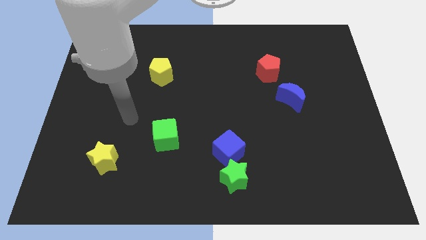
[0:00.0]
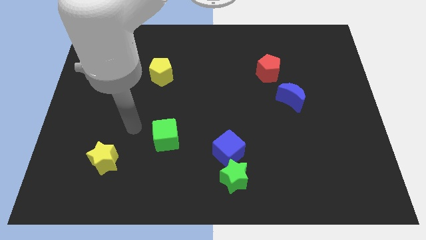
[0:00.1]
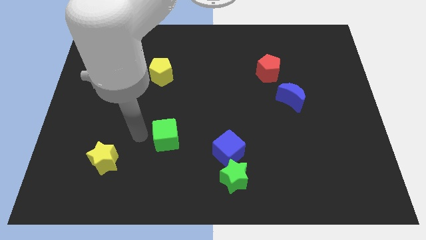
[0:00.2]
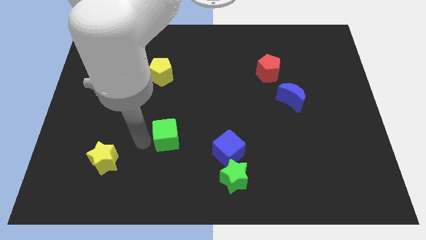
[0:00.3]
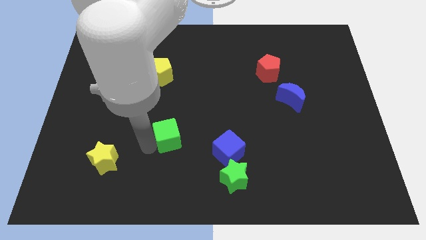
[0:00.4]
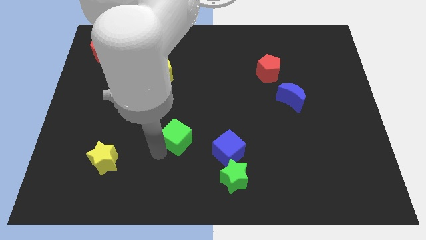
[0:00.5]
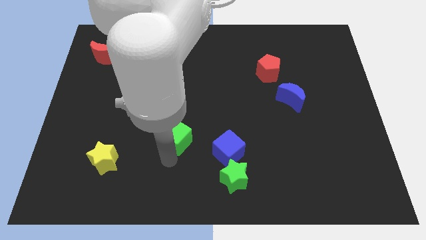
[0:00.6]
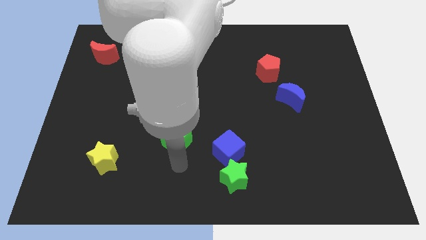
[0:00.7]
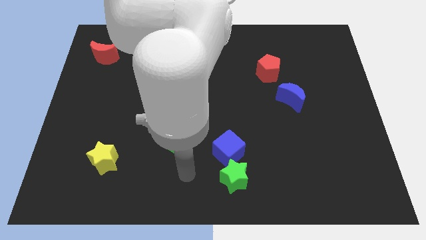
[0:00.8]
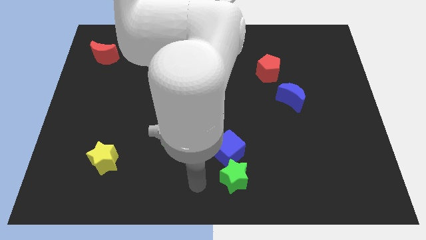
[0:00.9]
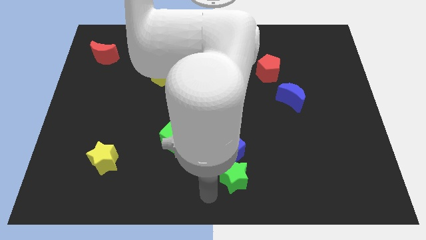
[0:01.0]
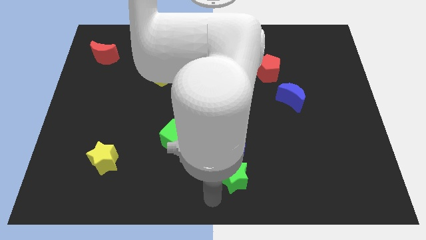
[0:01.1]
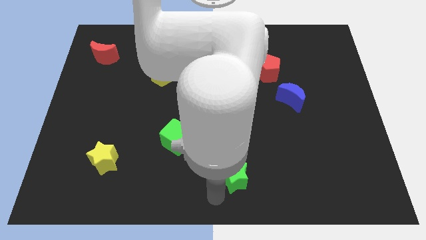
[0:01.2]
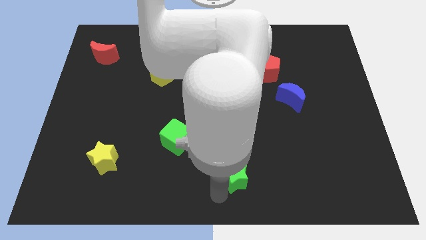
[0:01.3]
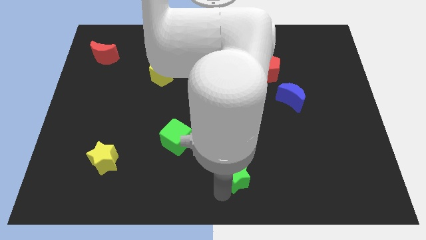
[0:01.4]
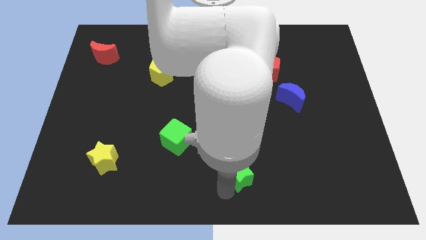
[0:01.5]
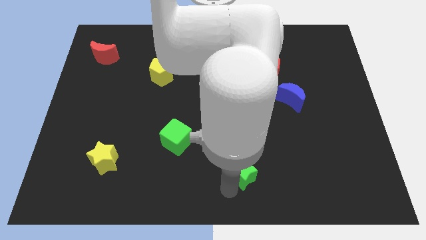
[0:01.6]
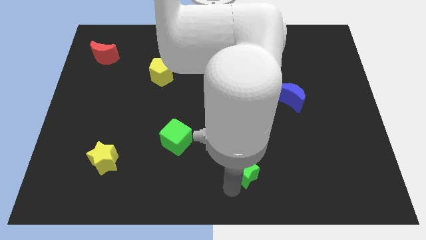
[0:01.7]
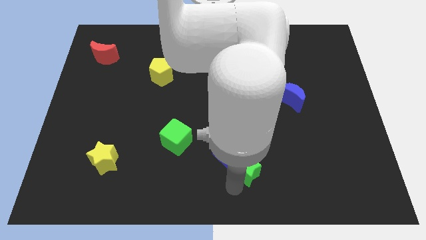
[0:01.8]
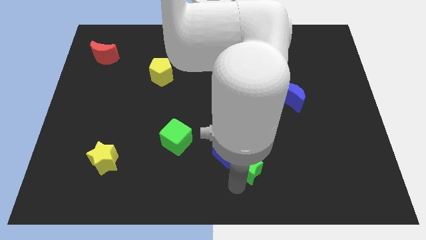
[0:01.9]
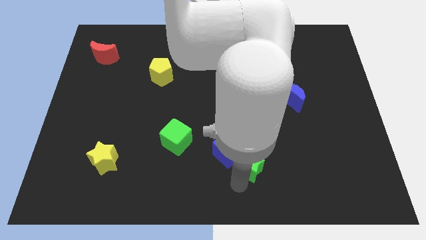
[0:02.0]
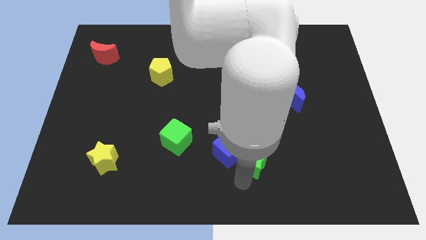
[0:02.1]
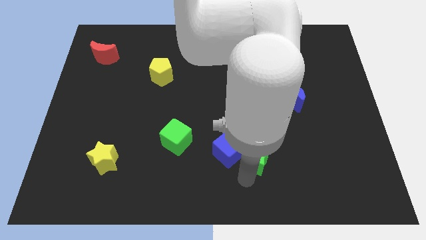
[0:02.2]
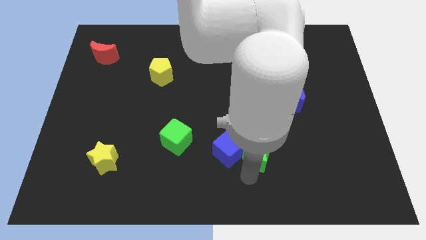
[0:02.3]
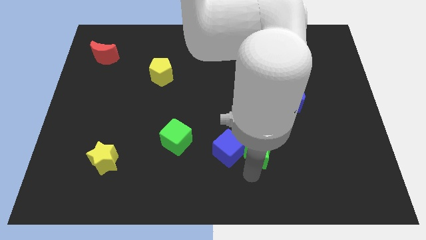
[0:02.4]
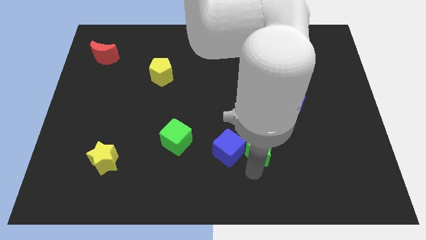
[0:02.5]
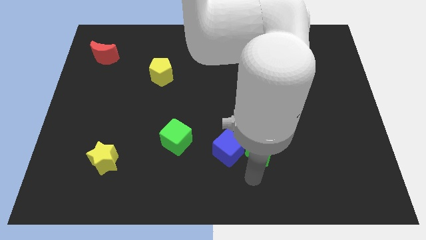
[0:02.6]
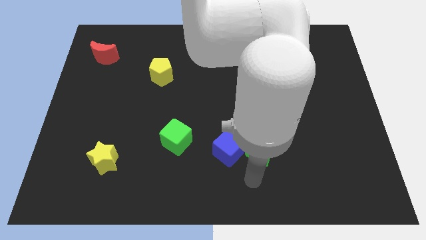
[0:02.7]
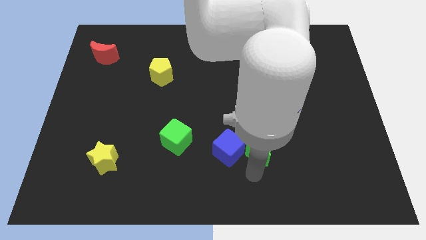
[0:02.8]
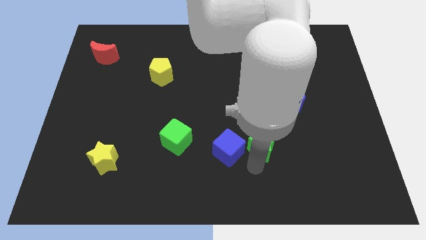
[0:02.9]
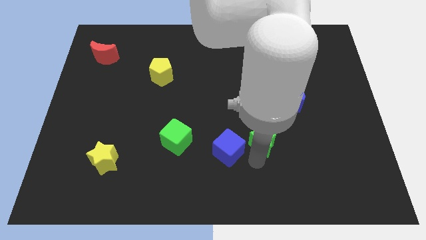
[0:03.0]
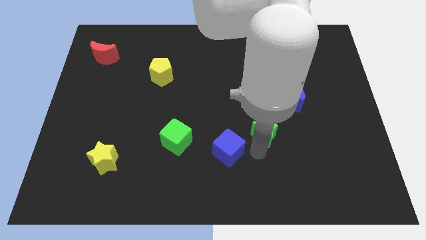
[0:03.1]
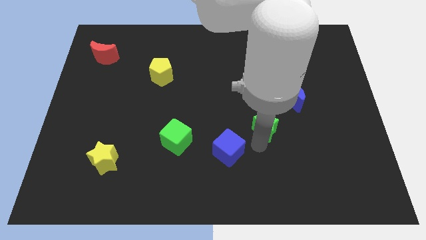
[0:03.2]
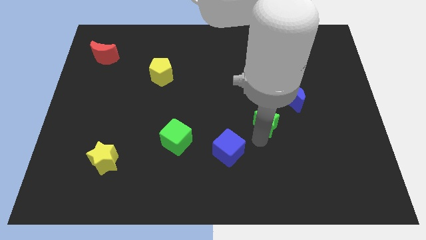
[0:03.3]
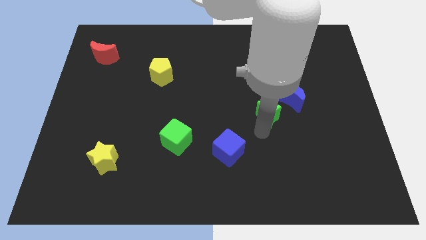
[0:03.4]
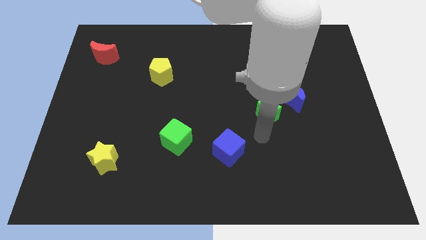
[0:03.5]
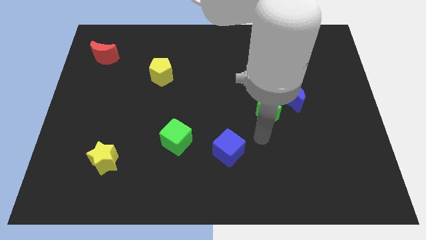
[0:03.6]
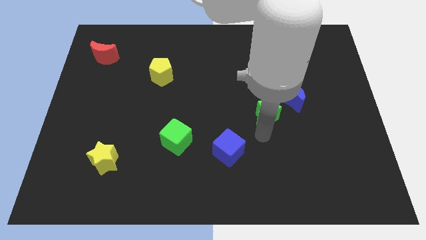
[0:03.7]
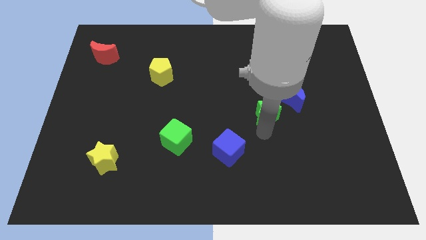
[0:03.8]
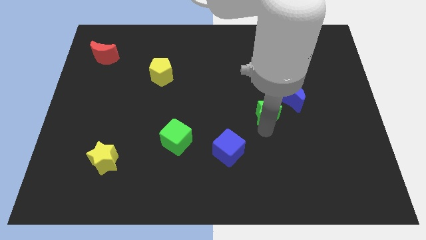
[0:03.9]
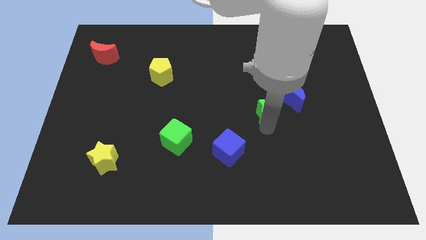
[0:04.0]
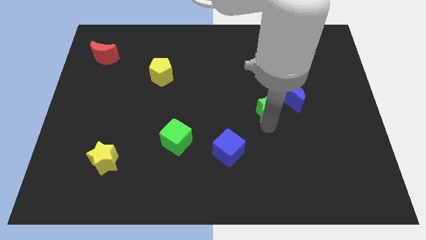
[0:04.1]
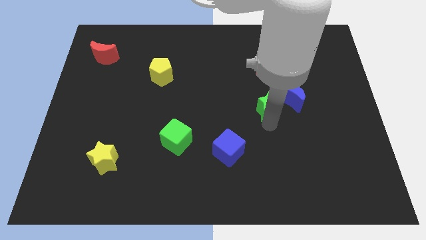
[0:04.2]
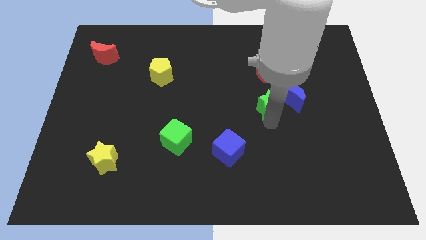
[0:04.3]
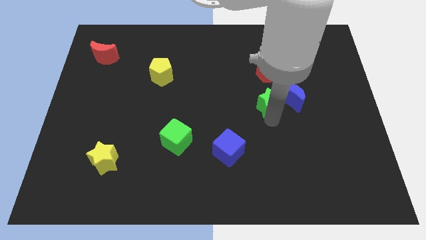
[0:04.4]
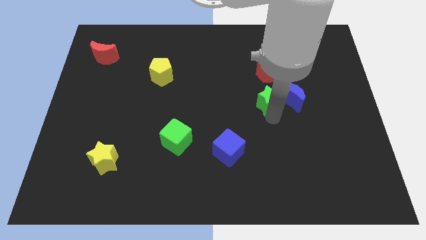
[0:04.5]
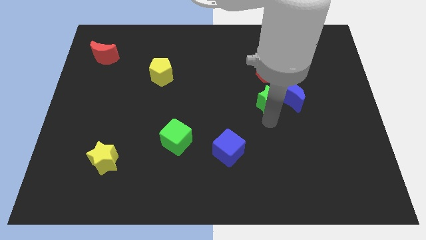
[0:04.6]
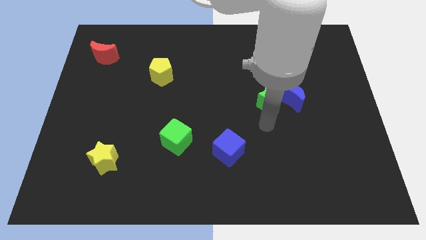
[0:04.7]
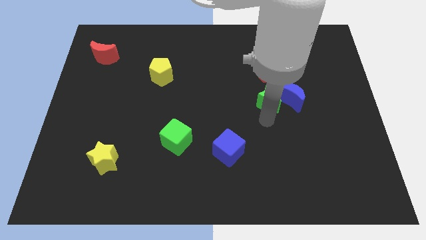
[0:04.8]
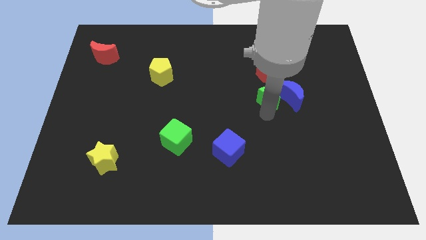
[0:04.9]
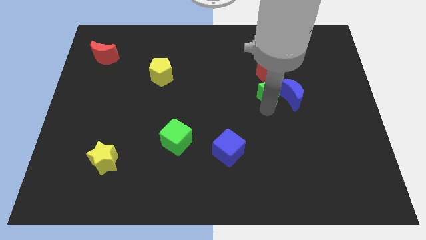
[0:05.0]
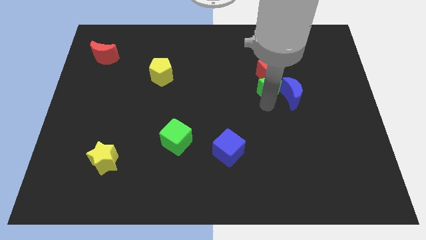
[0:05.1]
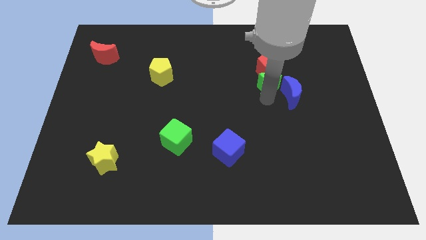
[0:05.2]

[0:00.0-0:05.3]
slide the green star next to the red pentagon

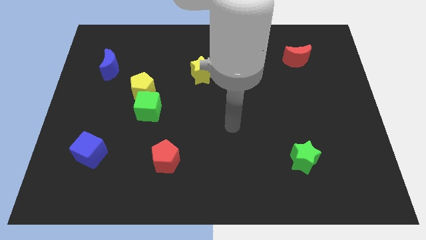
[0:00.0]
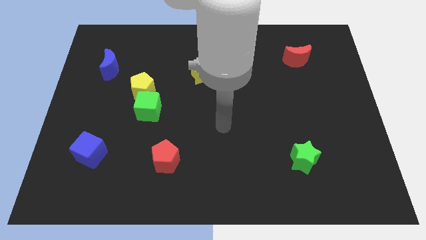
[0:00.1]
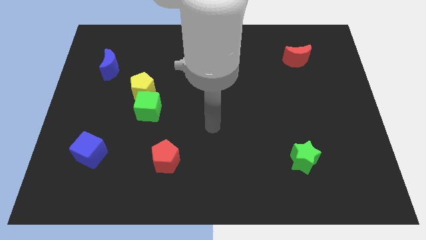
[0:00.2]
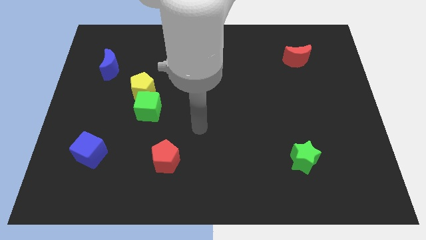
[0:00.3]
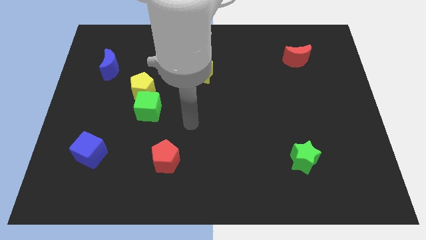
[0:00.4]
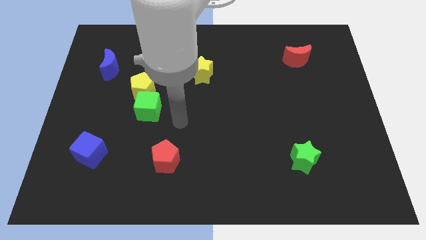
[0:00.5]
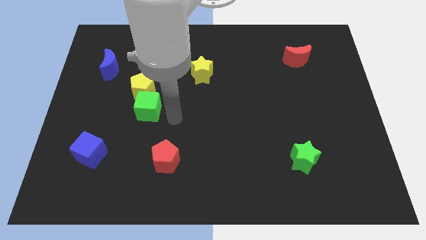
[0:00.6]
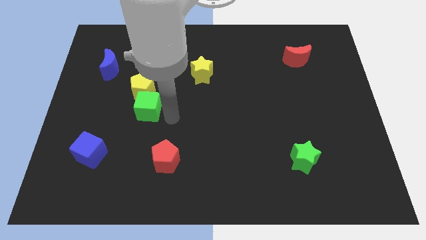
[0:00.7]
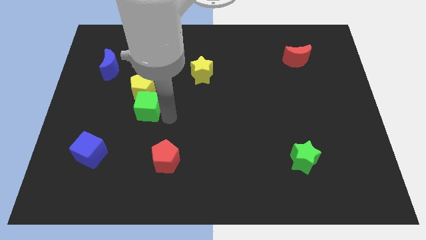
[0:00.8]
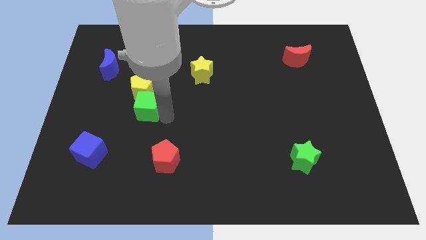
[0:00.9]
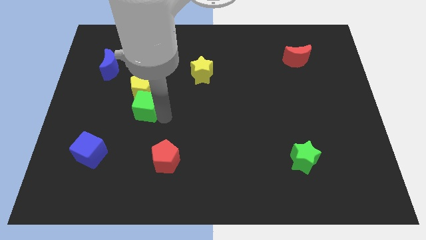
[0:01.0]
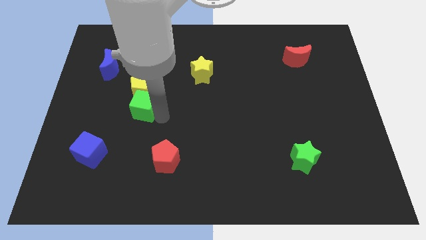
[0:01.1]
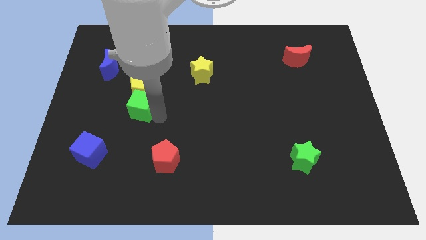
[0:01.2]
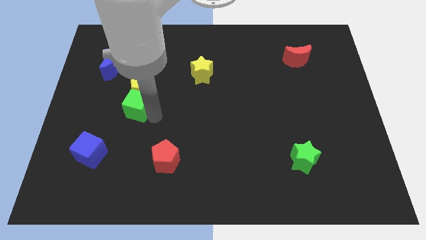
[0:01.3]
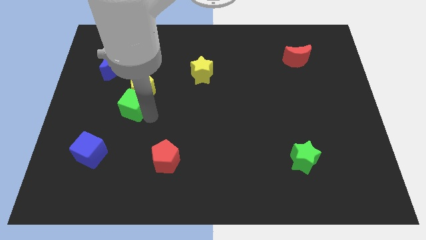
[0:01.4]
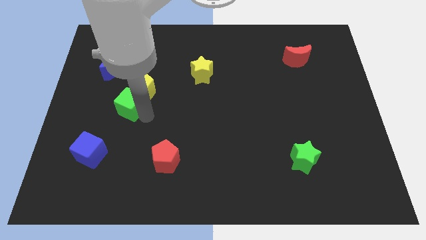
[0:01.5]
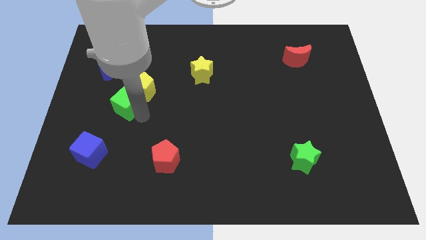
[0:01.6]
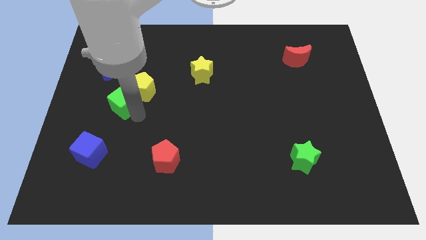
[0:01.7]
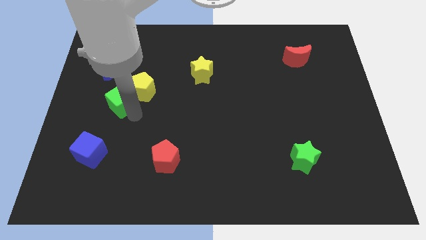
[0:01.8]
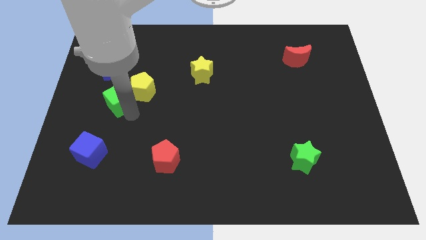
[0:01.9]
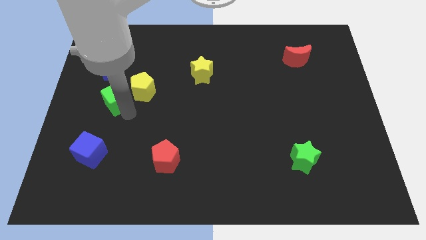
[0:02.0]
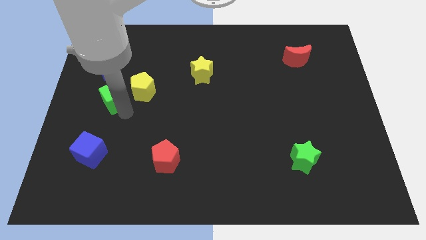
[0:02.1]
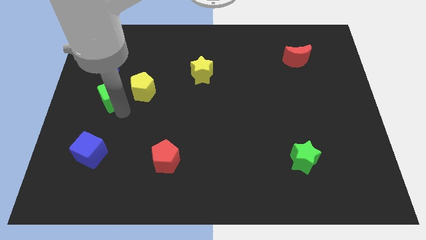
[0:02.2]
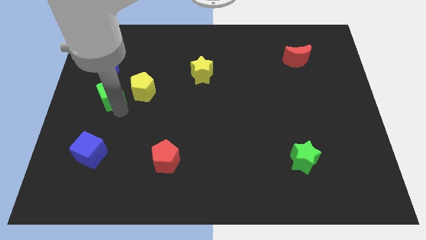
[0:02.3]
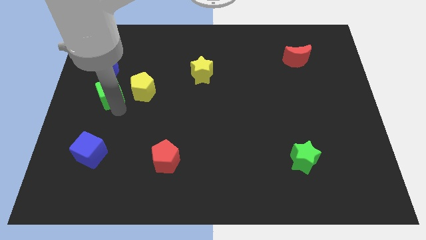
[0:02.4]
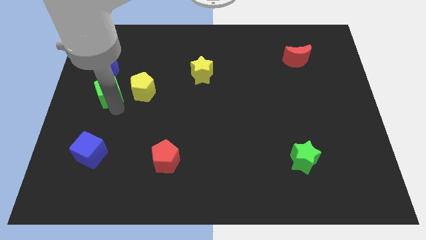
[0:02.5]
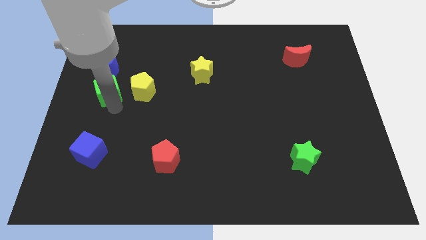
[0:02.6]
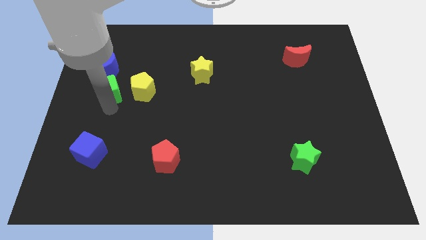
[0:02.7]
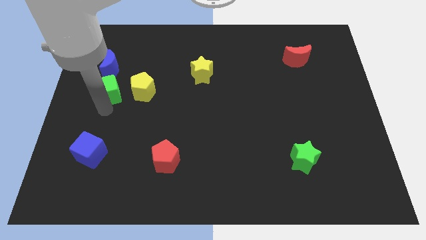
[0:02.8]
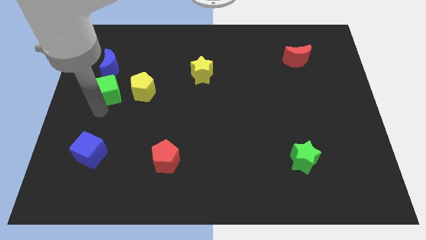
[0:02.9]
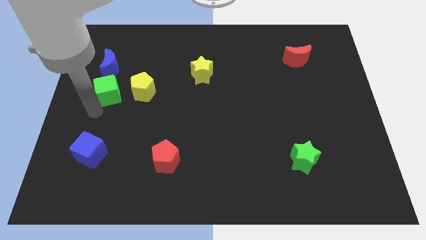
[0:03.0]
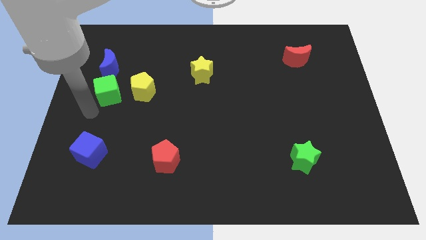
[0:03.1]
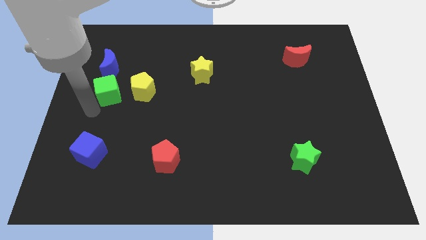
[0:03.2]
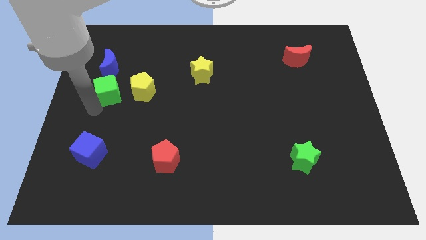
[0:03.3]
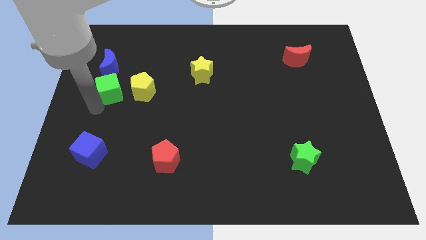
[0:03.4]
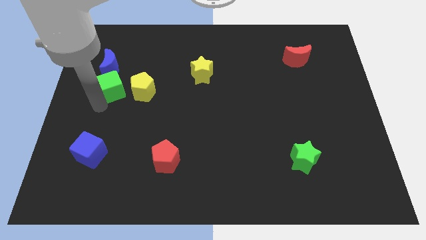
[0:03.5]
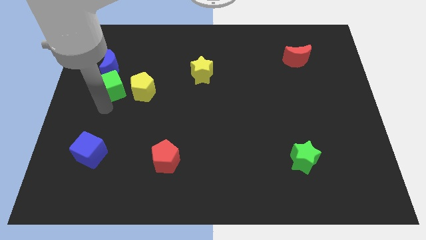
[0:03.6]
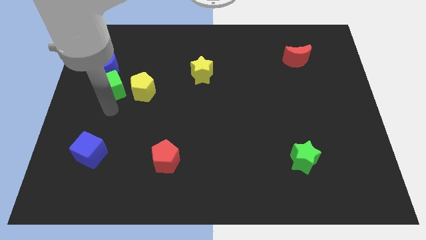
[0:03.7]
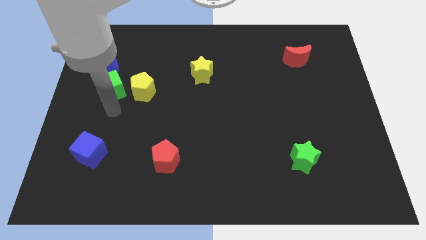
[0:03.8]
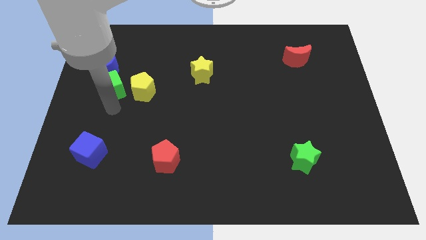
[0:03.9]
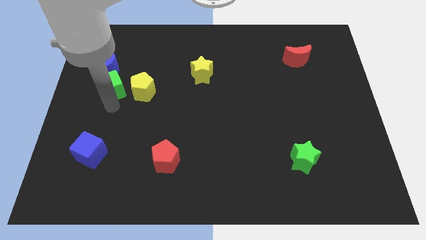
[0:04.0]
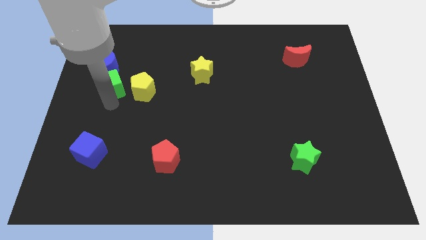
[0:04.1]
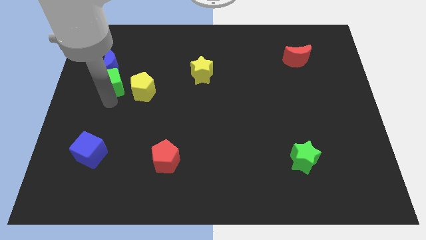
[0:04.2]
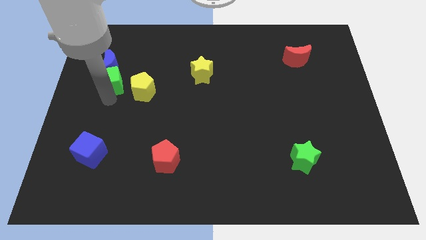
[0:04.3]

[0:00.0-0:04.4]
slide the green cube towards the blue moon
